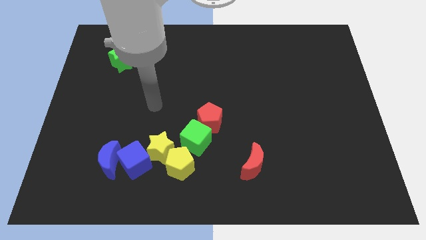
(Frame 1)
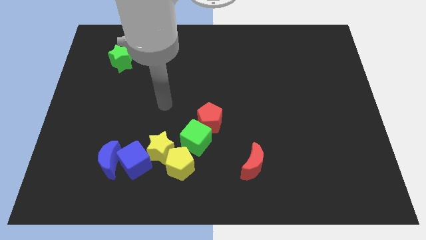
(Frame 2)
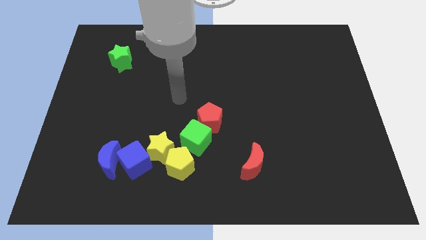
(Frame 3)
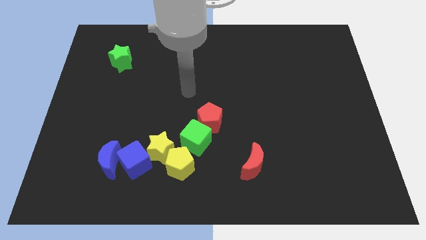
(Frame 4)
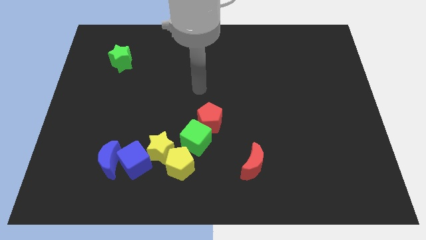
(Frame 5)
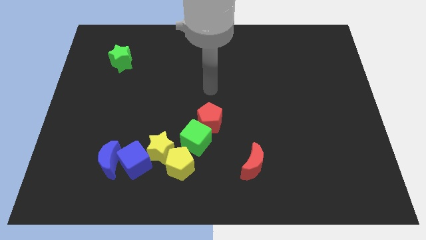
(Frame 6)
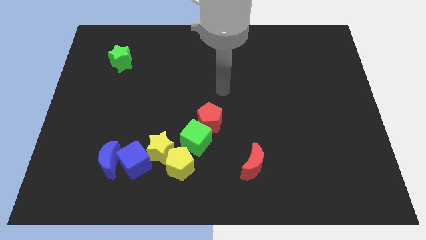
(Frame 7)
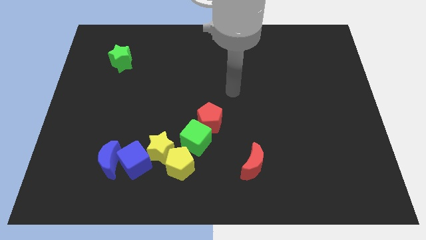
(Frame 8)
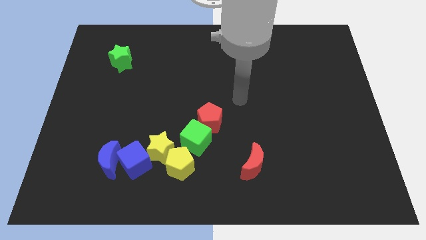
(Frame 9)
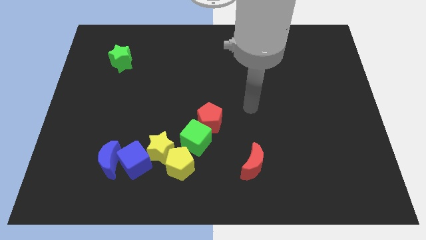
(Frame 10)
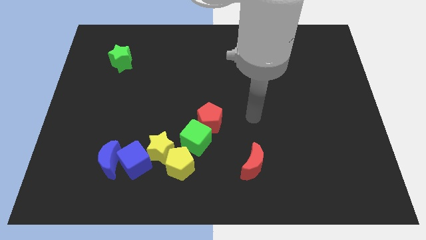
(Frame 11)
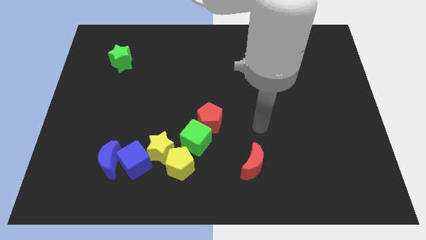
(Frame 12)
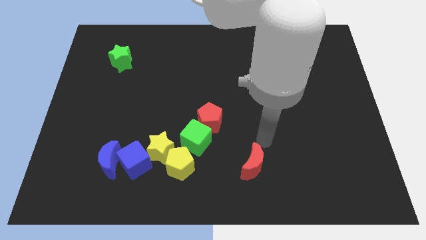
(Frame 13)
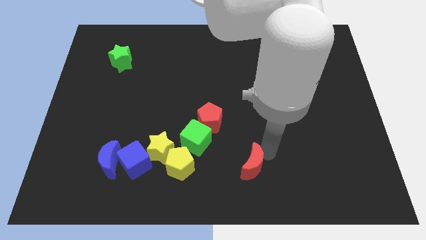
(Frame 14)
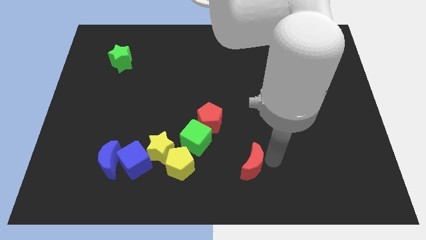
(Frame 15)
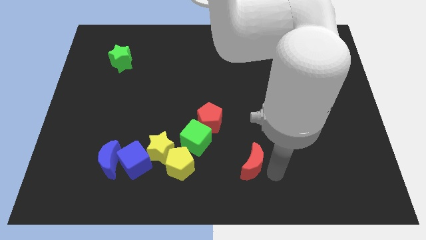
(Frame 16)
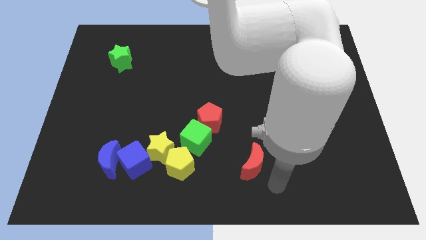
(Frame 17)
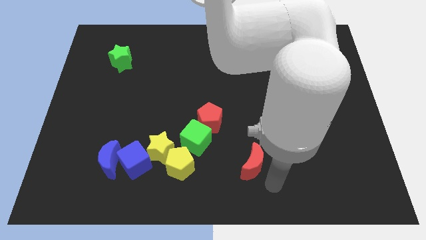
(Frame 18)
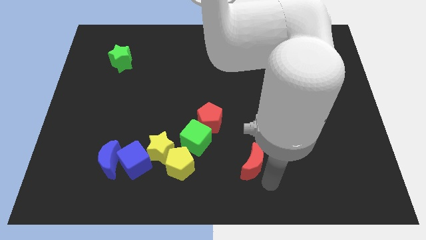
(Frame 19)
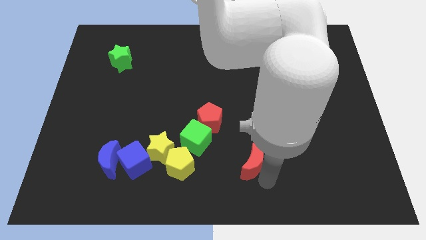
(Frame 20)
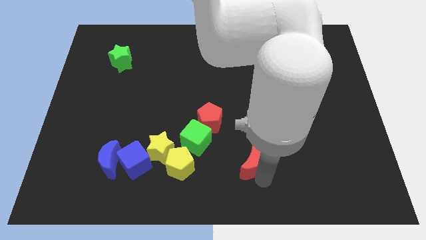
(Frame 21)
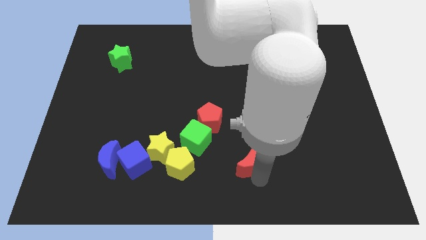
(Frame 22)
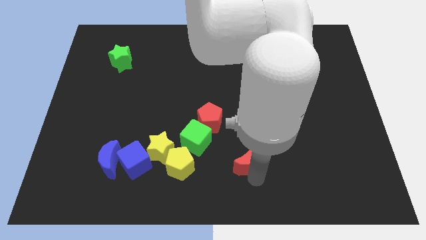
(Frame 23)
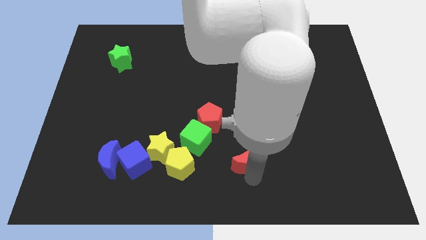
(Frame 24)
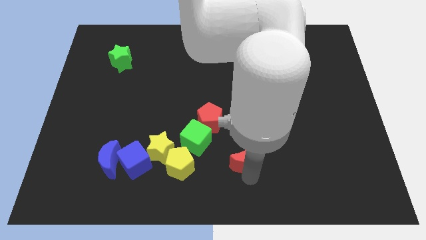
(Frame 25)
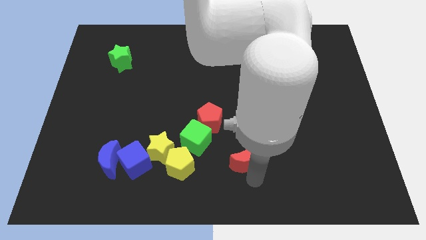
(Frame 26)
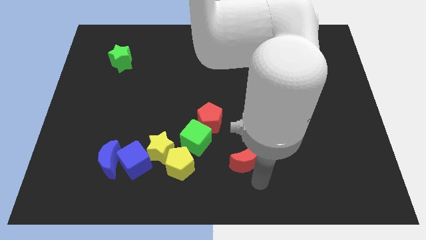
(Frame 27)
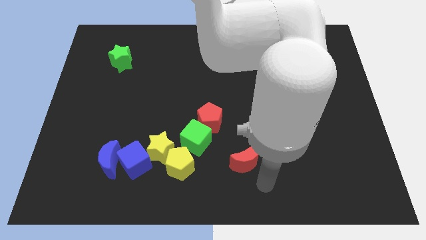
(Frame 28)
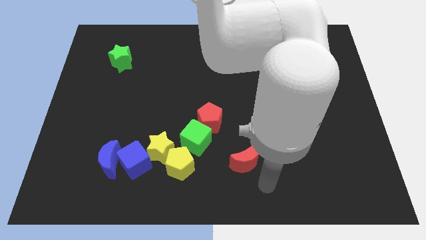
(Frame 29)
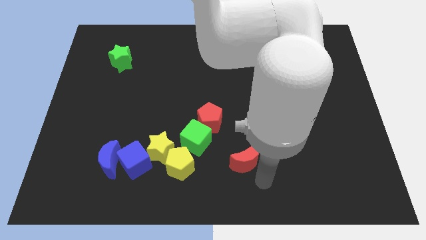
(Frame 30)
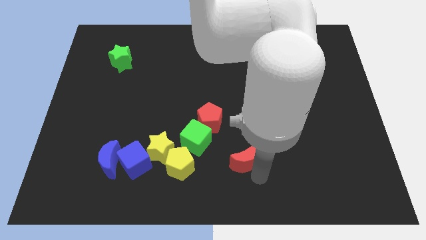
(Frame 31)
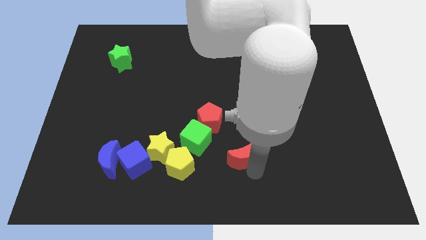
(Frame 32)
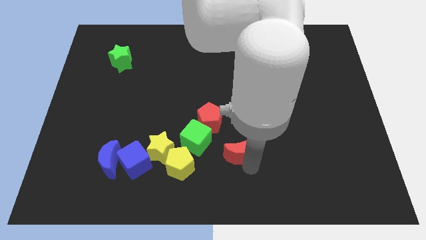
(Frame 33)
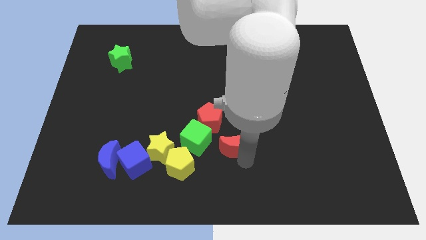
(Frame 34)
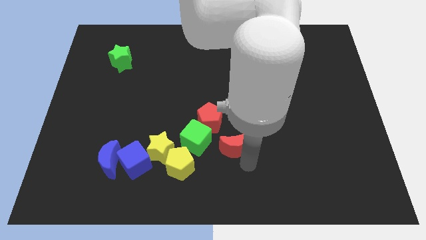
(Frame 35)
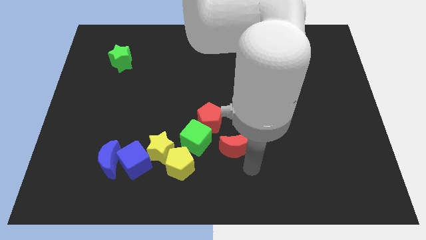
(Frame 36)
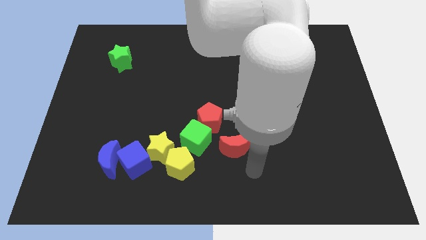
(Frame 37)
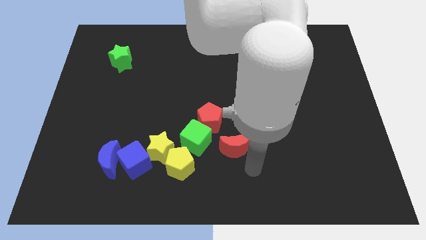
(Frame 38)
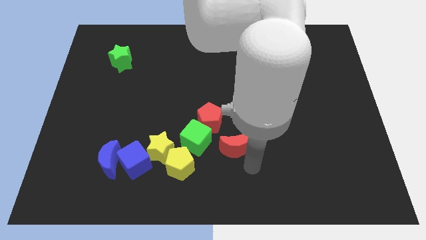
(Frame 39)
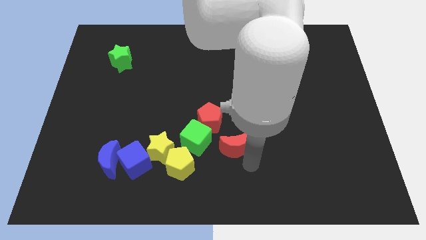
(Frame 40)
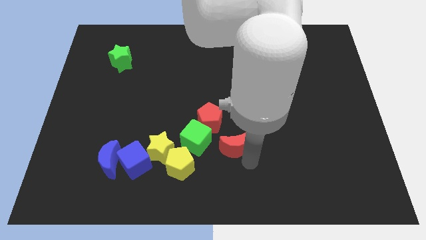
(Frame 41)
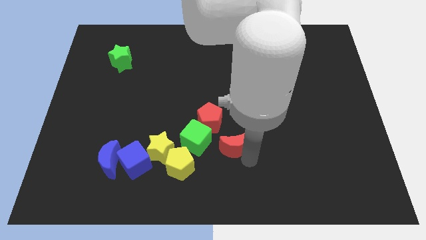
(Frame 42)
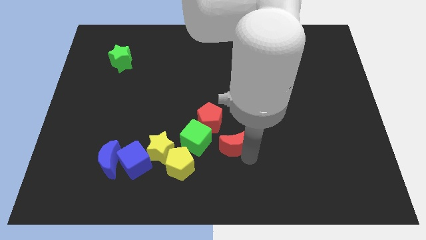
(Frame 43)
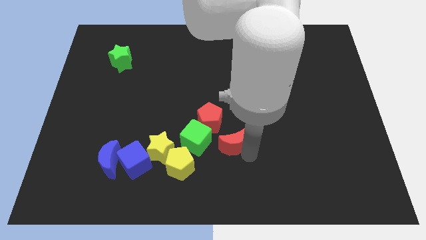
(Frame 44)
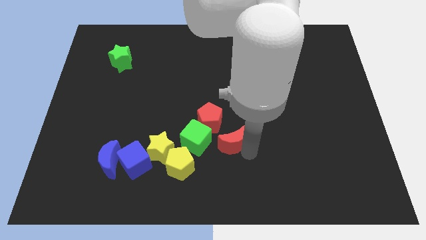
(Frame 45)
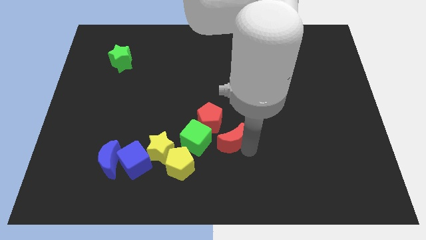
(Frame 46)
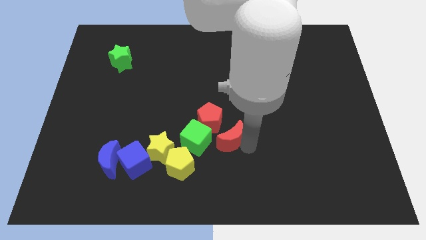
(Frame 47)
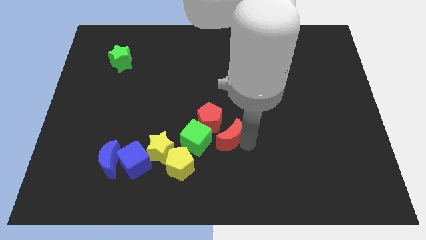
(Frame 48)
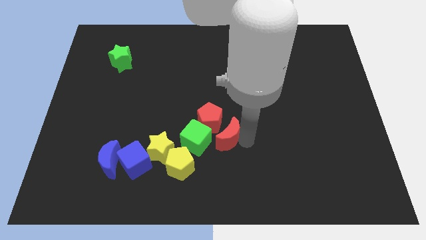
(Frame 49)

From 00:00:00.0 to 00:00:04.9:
push the red moon next to the red pentagon

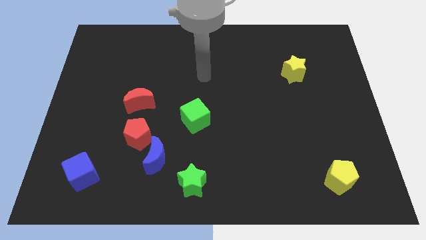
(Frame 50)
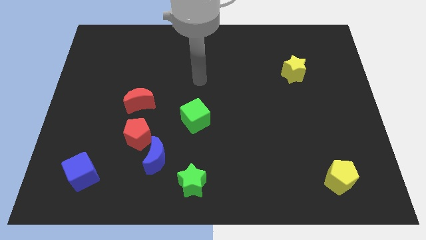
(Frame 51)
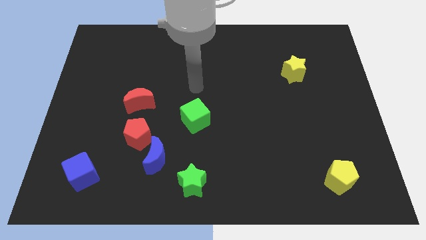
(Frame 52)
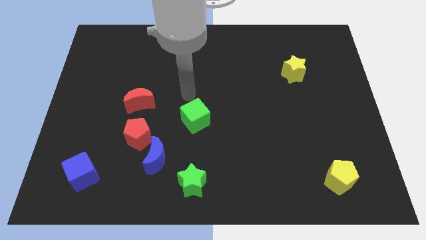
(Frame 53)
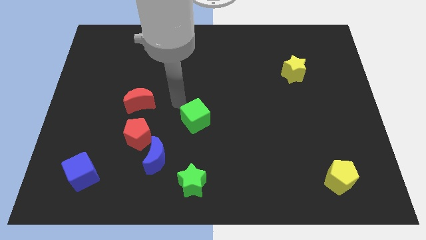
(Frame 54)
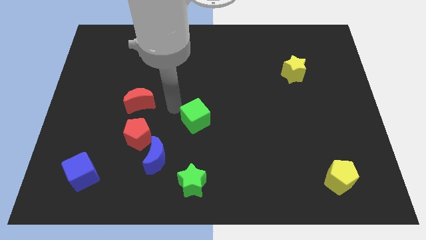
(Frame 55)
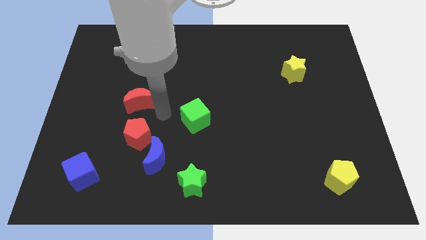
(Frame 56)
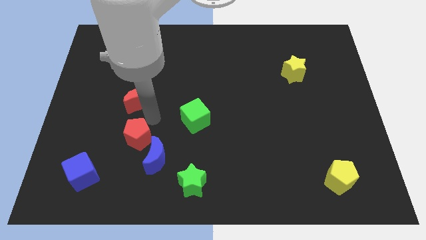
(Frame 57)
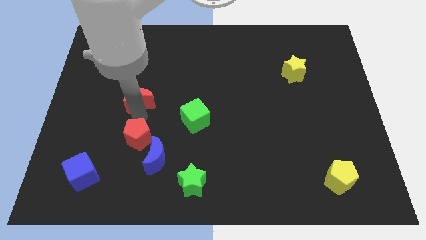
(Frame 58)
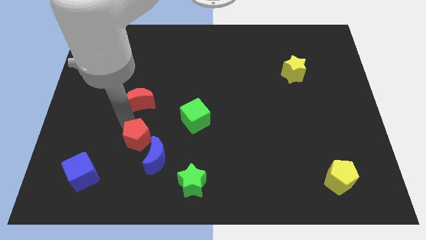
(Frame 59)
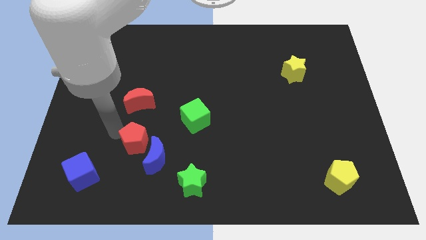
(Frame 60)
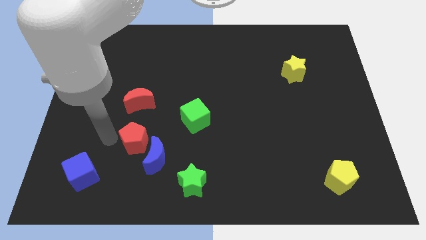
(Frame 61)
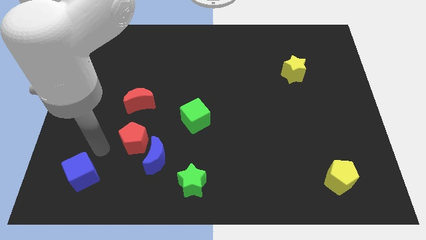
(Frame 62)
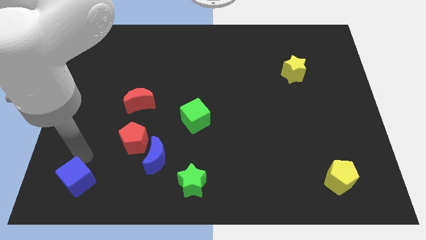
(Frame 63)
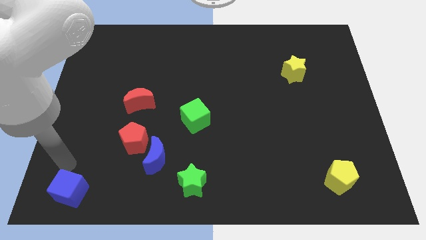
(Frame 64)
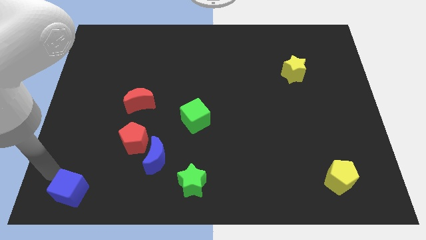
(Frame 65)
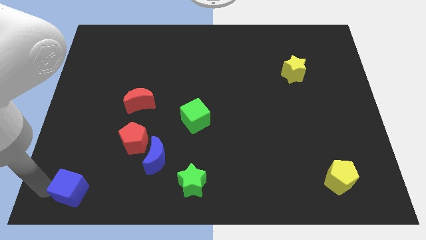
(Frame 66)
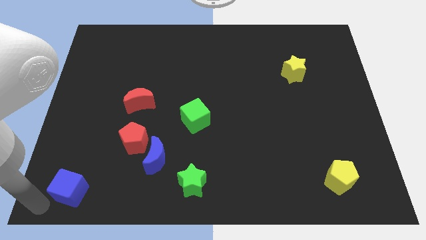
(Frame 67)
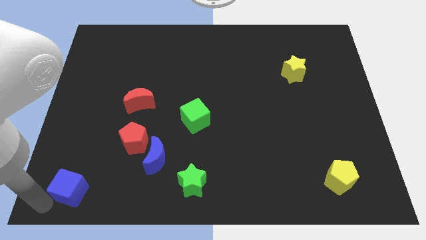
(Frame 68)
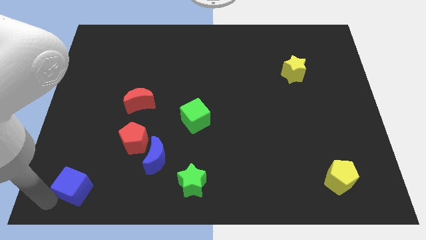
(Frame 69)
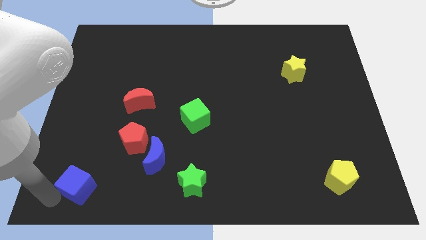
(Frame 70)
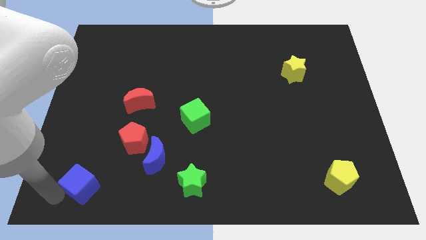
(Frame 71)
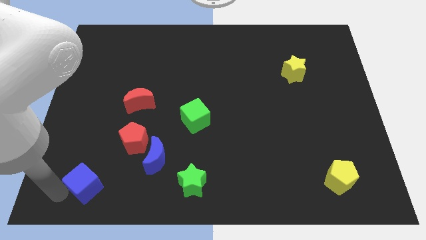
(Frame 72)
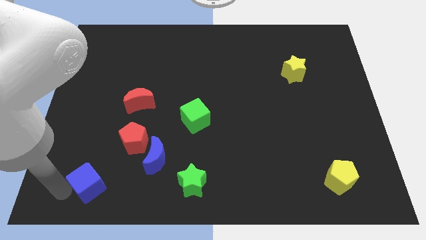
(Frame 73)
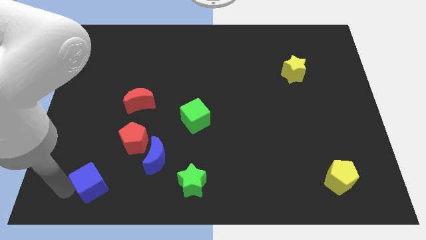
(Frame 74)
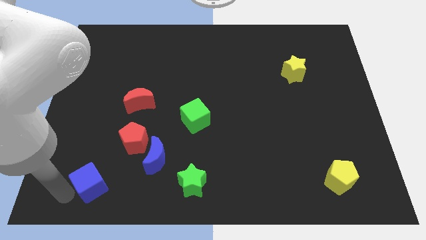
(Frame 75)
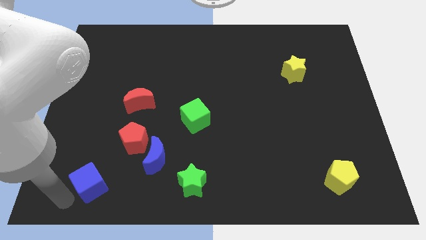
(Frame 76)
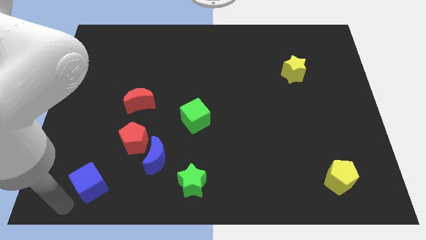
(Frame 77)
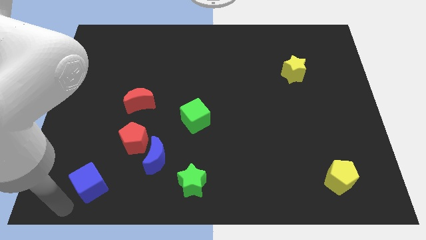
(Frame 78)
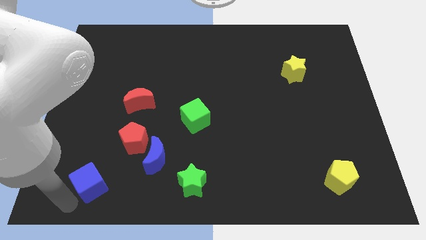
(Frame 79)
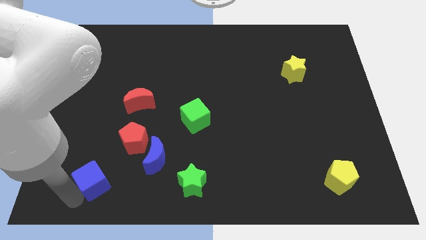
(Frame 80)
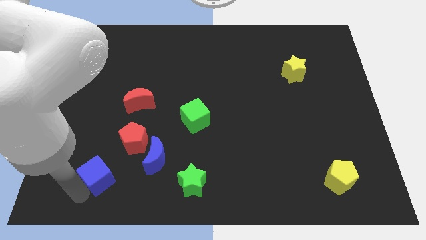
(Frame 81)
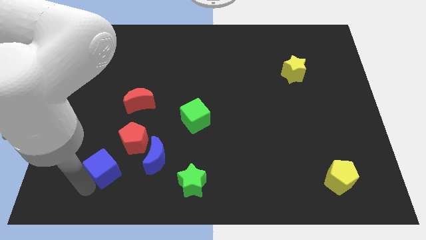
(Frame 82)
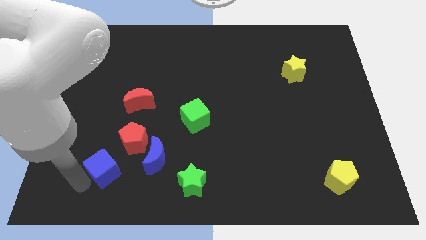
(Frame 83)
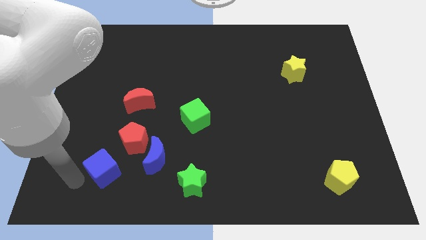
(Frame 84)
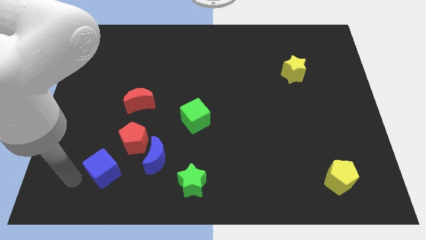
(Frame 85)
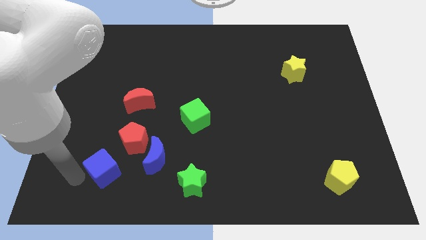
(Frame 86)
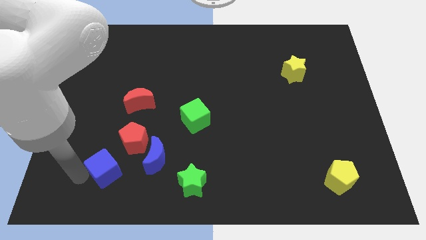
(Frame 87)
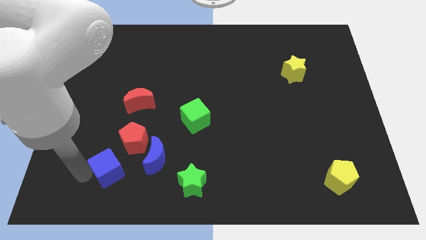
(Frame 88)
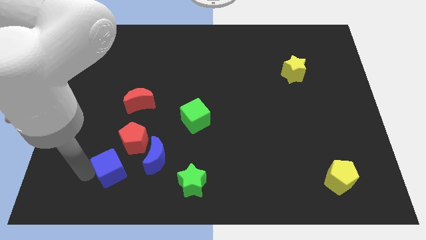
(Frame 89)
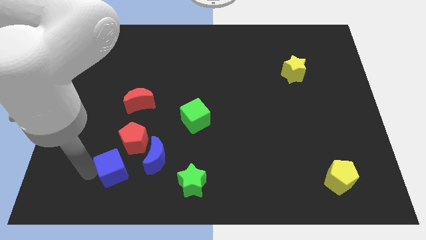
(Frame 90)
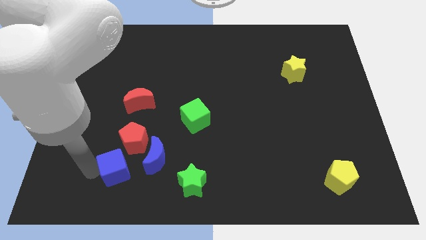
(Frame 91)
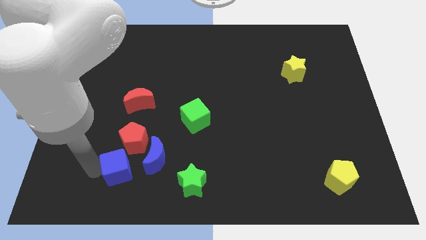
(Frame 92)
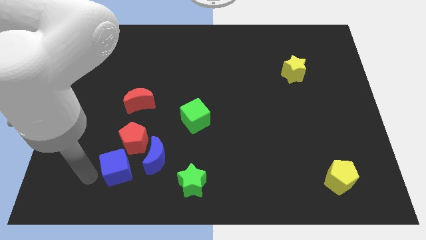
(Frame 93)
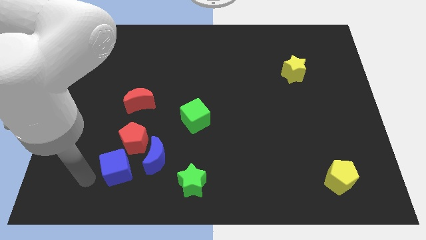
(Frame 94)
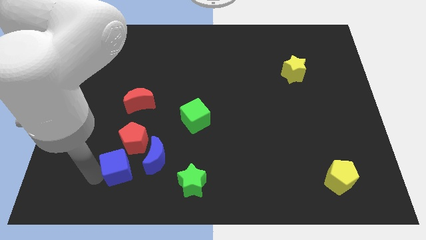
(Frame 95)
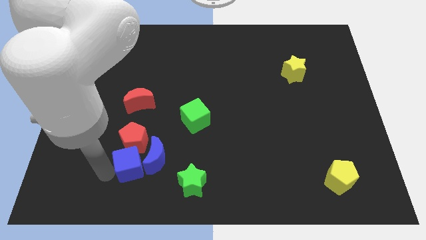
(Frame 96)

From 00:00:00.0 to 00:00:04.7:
push the blue cube to the blue moon
